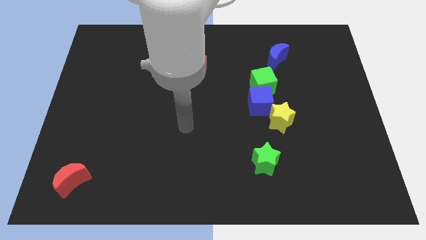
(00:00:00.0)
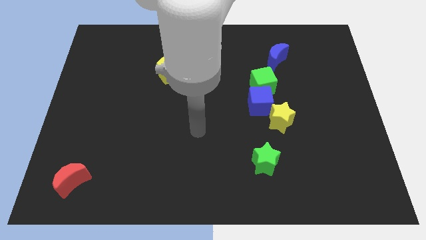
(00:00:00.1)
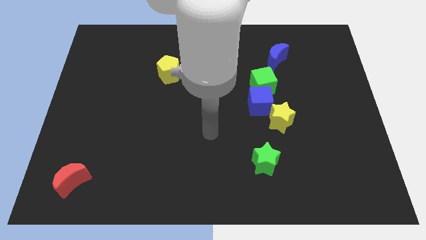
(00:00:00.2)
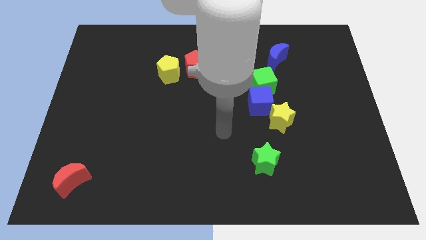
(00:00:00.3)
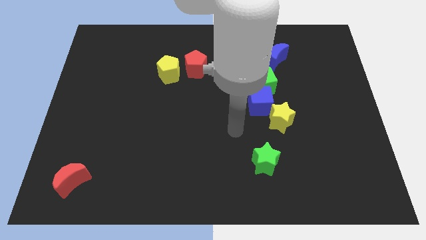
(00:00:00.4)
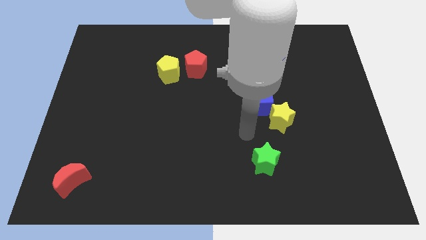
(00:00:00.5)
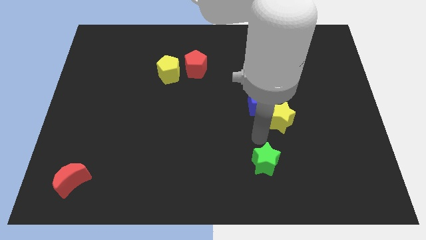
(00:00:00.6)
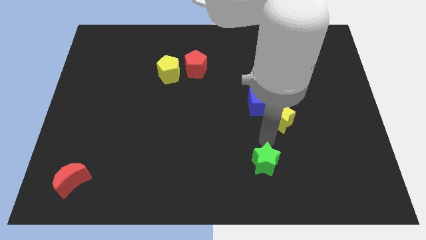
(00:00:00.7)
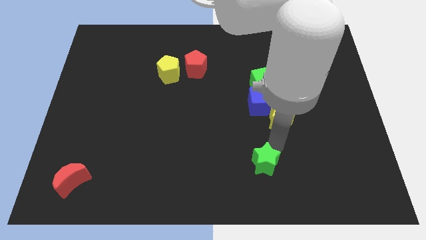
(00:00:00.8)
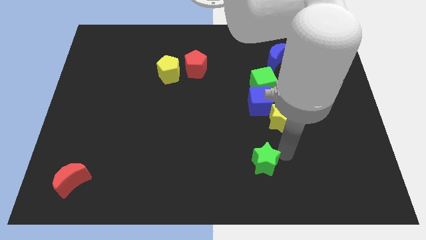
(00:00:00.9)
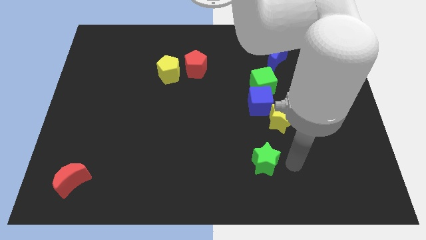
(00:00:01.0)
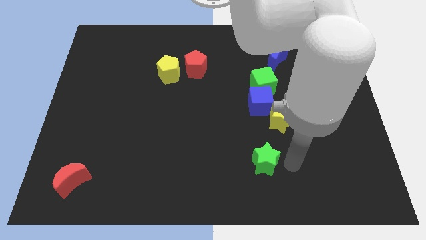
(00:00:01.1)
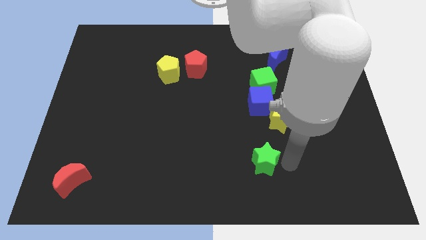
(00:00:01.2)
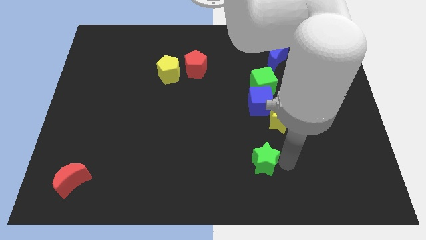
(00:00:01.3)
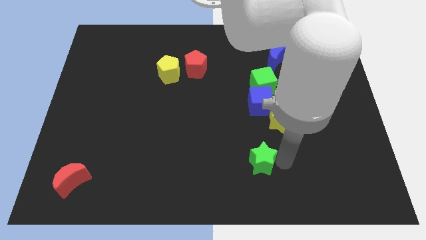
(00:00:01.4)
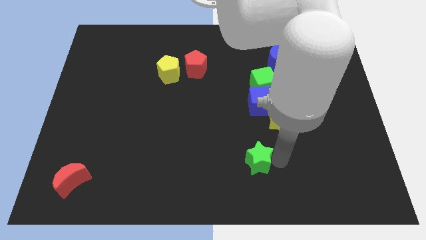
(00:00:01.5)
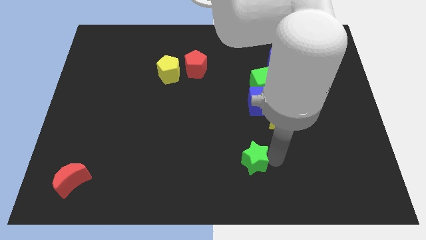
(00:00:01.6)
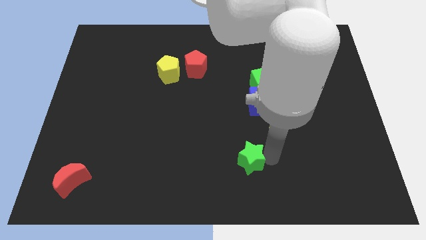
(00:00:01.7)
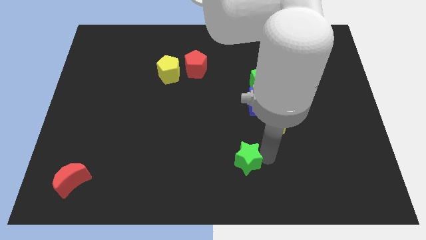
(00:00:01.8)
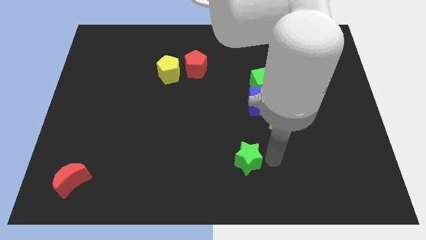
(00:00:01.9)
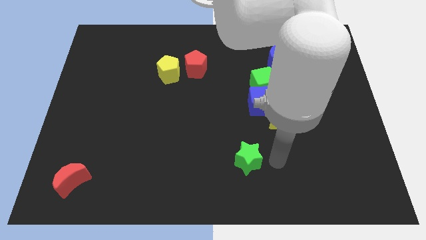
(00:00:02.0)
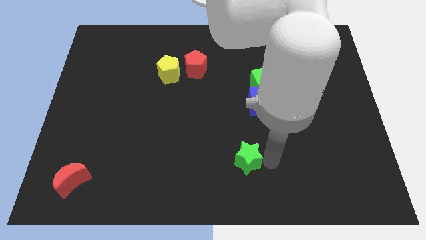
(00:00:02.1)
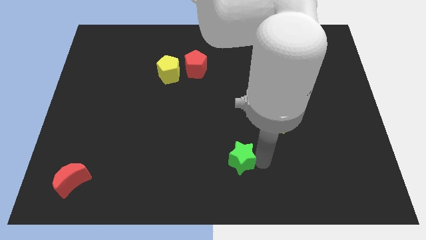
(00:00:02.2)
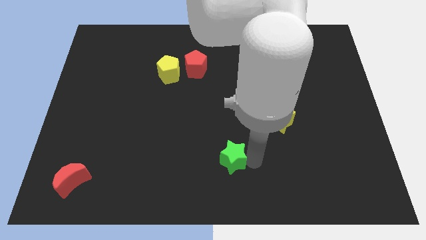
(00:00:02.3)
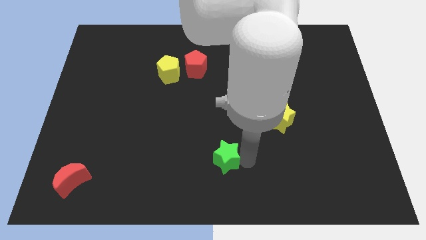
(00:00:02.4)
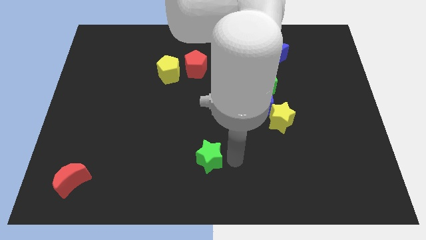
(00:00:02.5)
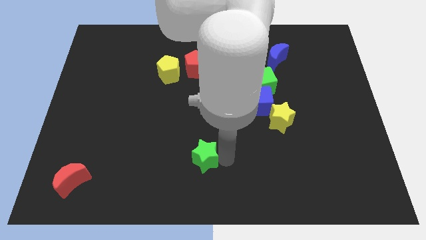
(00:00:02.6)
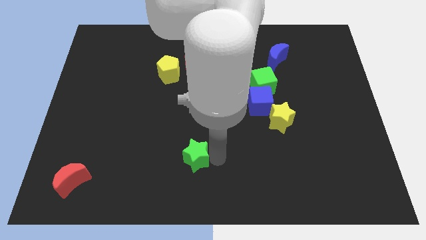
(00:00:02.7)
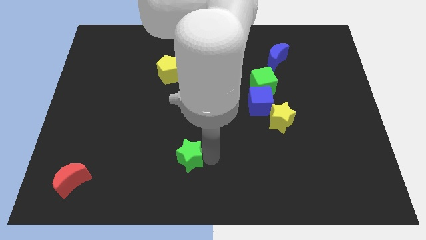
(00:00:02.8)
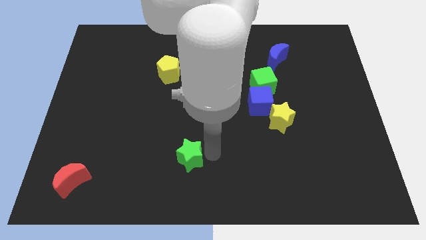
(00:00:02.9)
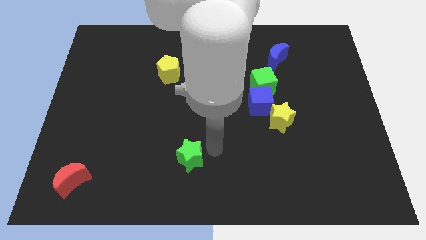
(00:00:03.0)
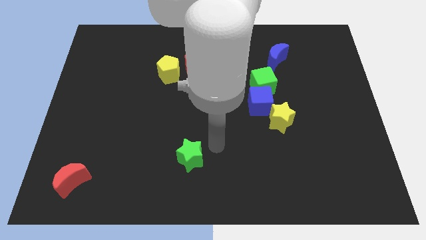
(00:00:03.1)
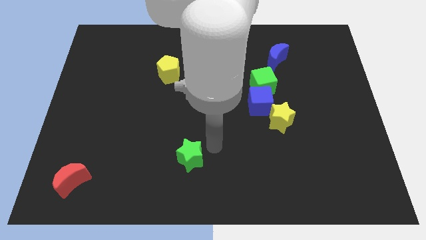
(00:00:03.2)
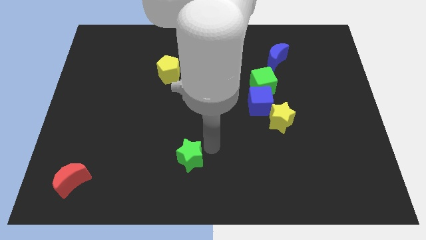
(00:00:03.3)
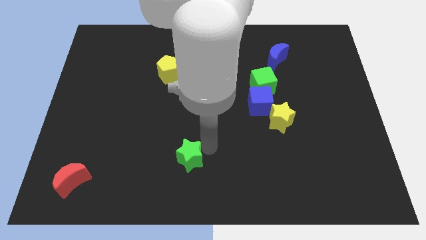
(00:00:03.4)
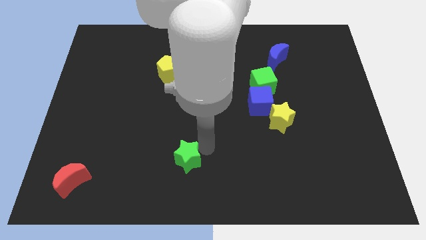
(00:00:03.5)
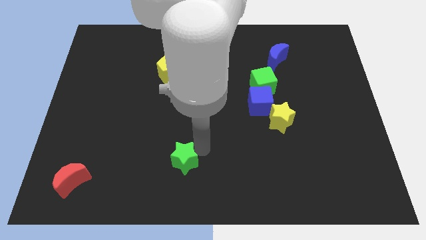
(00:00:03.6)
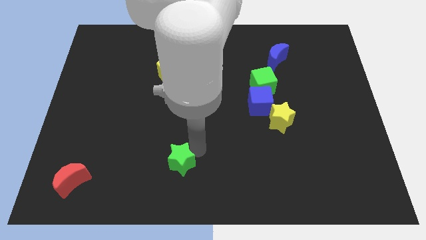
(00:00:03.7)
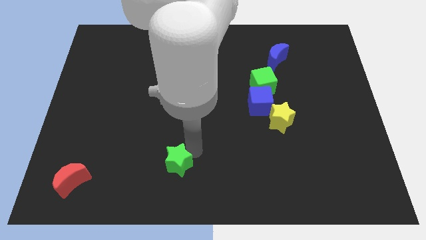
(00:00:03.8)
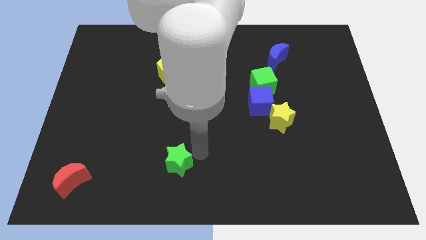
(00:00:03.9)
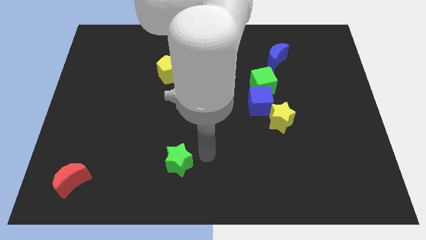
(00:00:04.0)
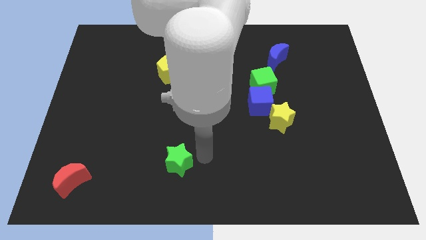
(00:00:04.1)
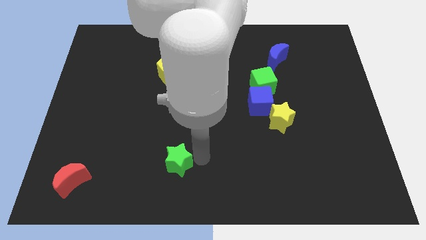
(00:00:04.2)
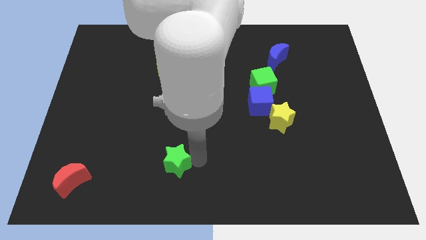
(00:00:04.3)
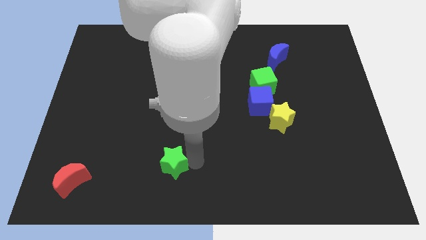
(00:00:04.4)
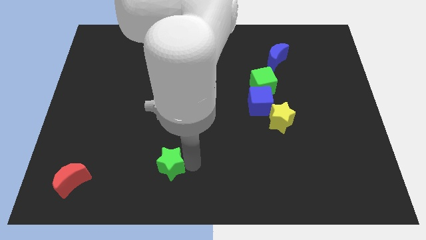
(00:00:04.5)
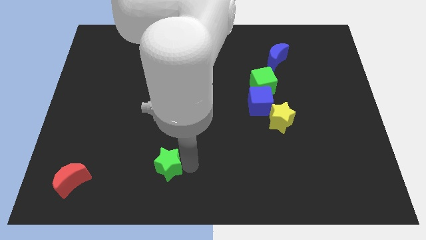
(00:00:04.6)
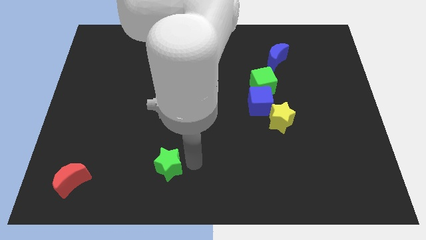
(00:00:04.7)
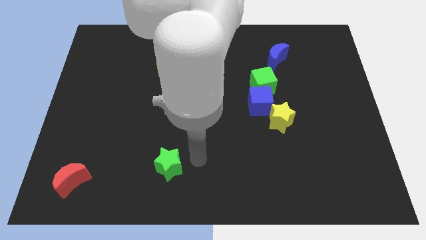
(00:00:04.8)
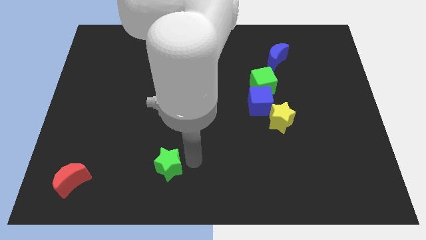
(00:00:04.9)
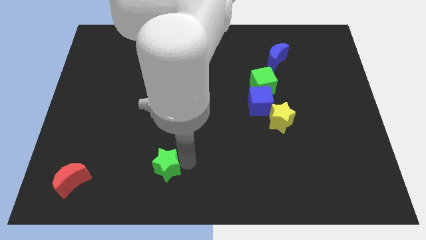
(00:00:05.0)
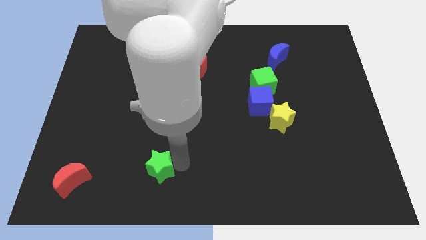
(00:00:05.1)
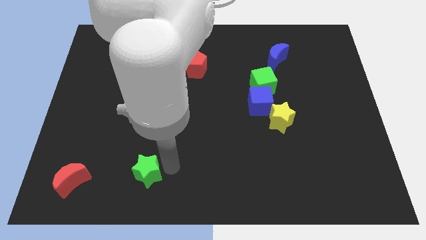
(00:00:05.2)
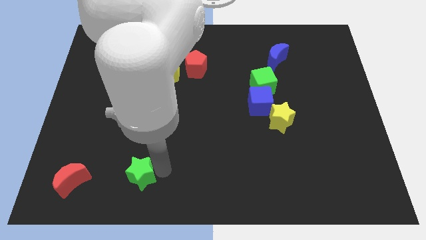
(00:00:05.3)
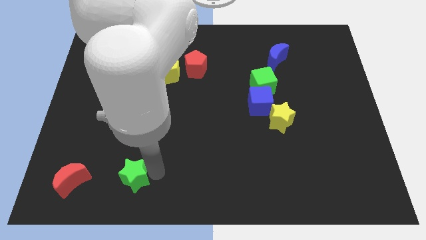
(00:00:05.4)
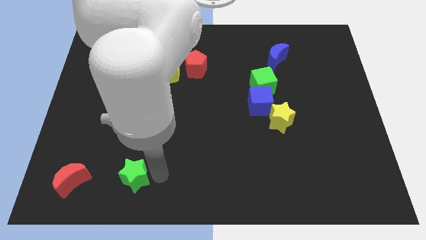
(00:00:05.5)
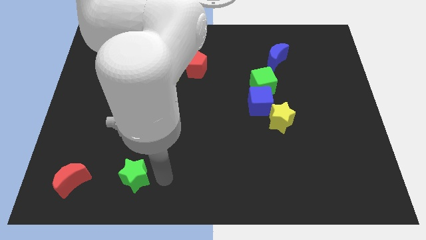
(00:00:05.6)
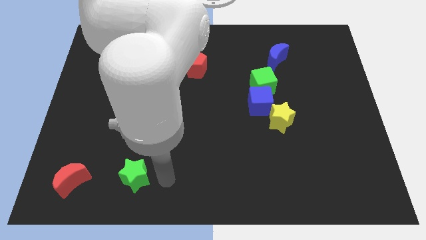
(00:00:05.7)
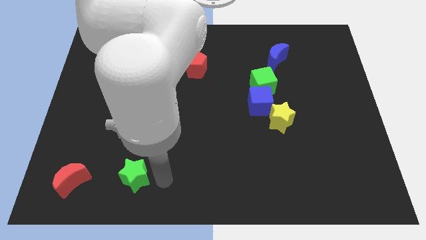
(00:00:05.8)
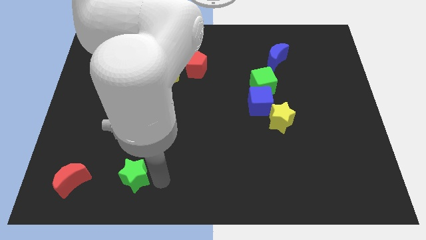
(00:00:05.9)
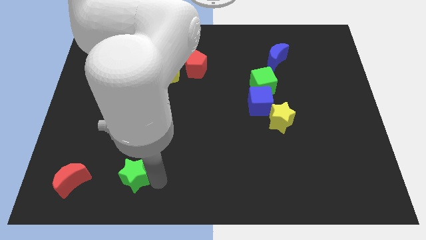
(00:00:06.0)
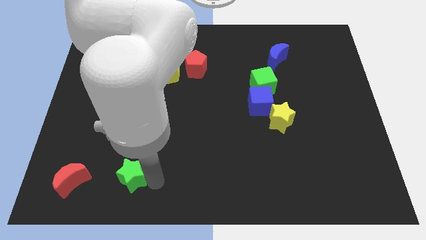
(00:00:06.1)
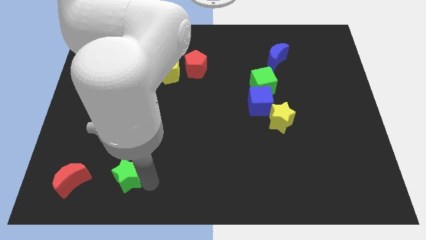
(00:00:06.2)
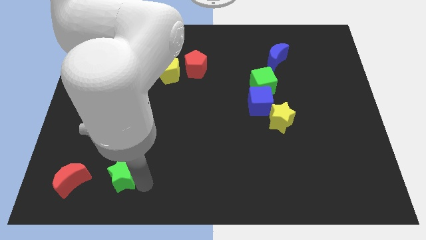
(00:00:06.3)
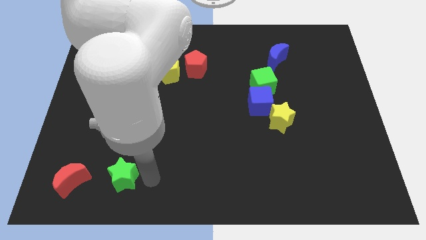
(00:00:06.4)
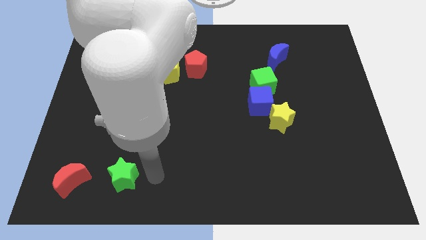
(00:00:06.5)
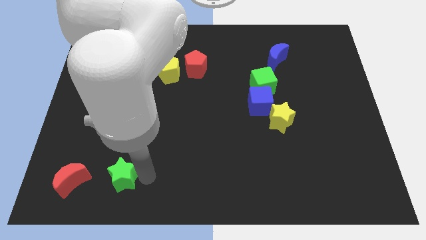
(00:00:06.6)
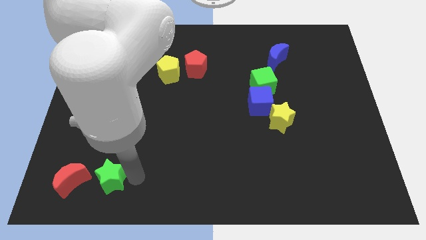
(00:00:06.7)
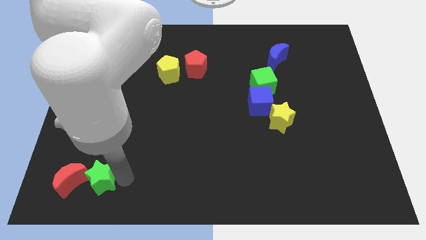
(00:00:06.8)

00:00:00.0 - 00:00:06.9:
put the green star to the red moon

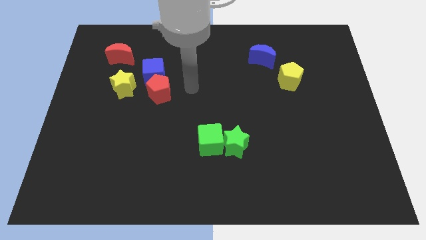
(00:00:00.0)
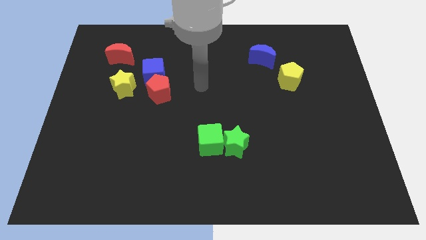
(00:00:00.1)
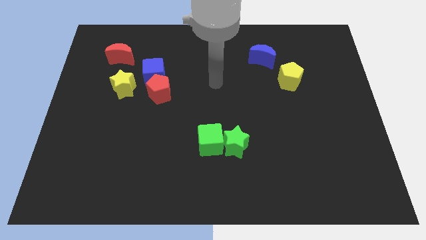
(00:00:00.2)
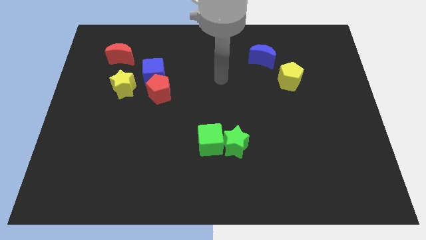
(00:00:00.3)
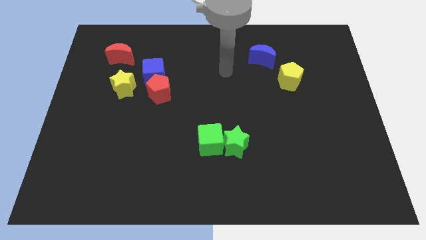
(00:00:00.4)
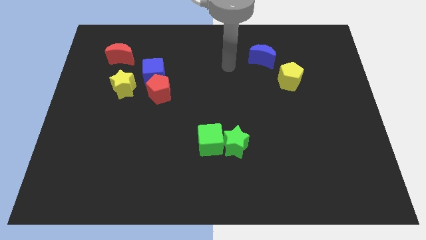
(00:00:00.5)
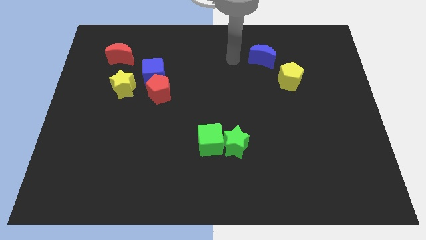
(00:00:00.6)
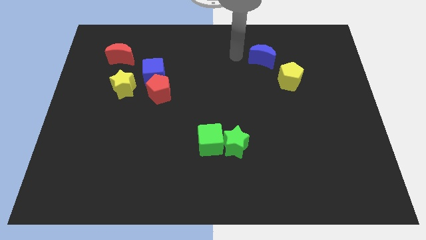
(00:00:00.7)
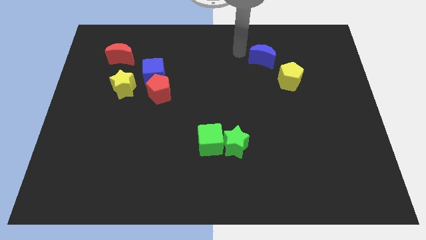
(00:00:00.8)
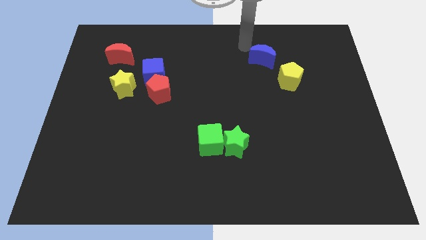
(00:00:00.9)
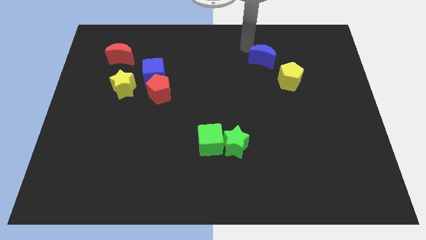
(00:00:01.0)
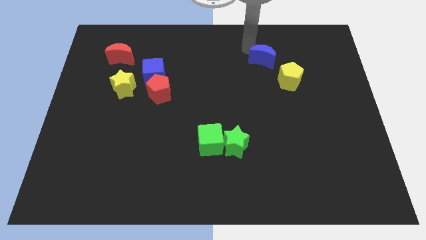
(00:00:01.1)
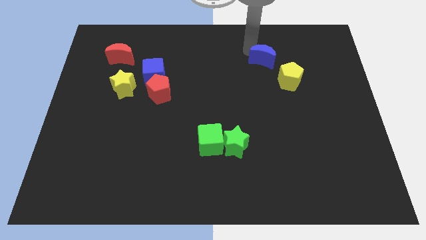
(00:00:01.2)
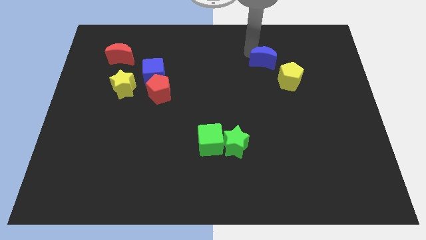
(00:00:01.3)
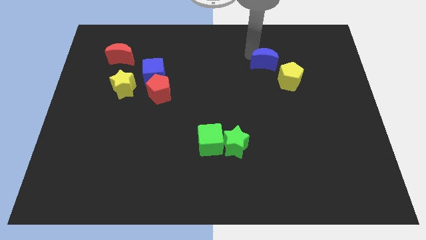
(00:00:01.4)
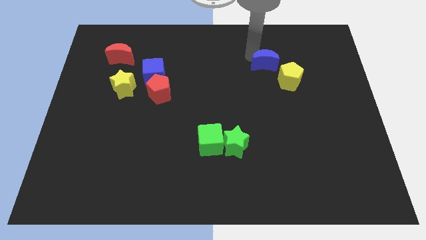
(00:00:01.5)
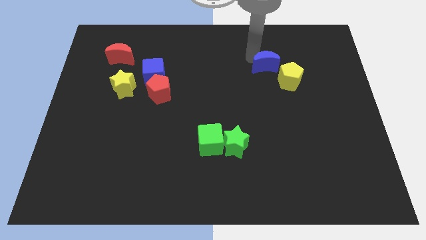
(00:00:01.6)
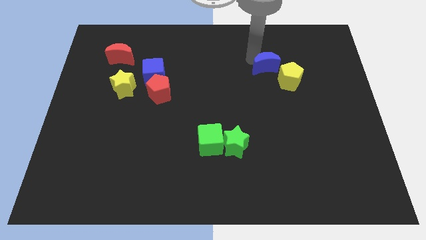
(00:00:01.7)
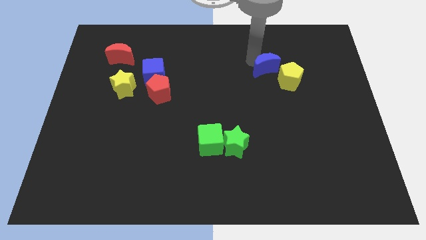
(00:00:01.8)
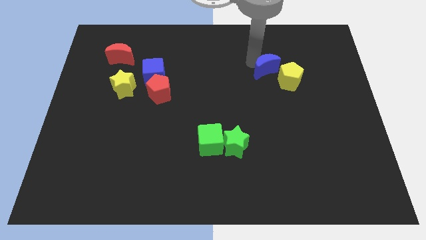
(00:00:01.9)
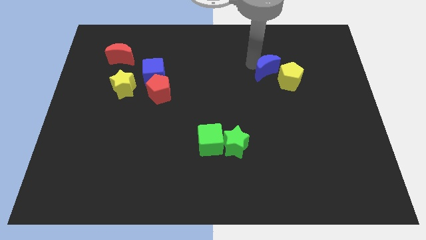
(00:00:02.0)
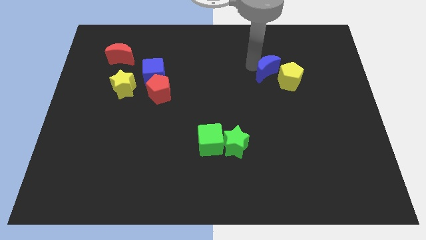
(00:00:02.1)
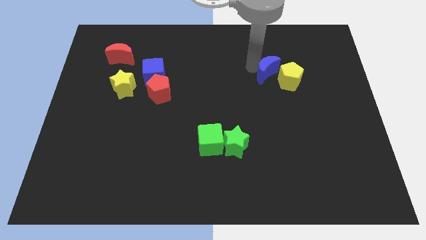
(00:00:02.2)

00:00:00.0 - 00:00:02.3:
move the blue moon close to the yellow pentagon
